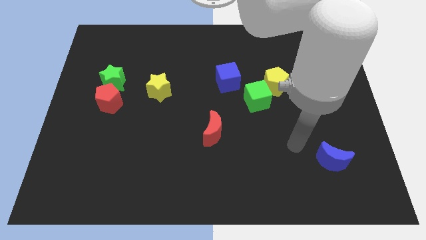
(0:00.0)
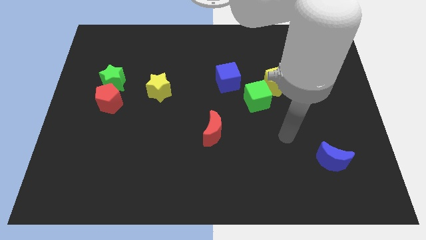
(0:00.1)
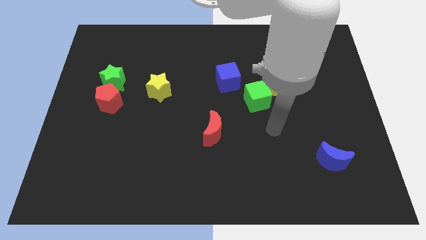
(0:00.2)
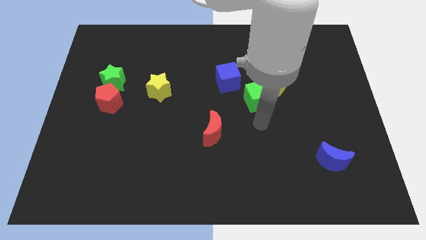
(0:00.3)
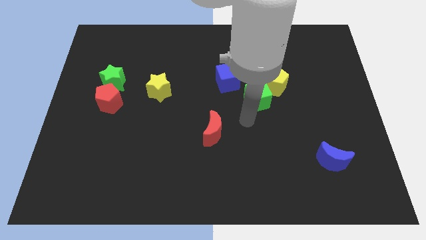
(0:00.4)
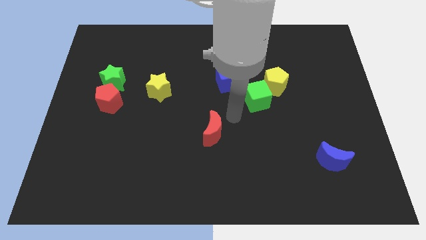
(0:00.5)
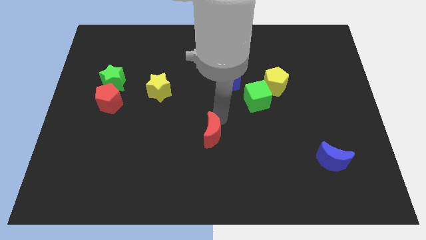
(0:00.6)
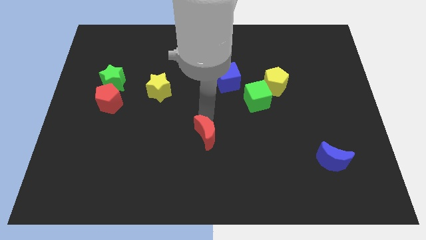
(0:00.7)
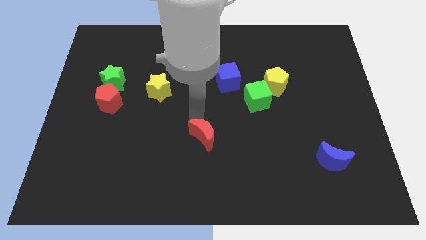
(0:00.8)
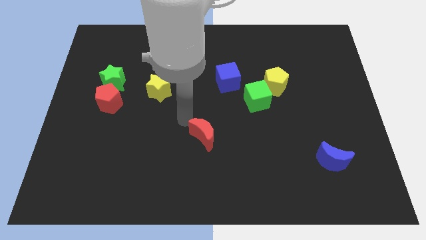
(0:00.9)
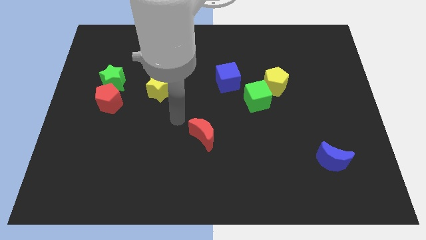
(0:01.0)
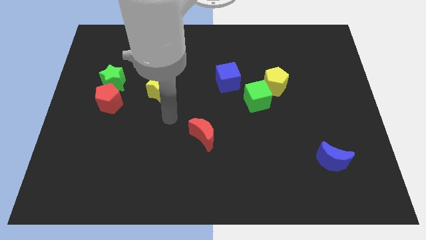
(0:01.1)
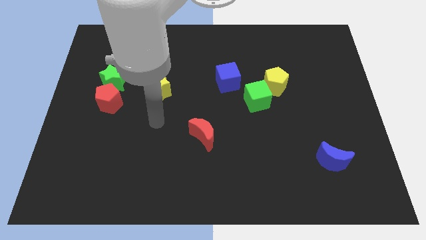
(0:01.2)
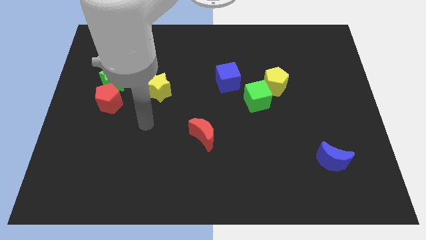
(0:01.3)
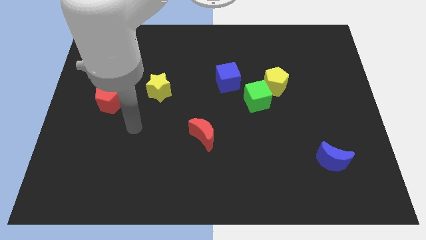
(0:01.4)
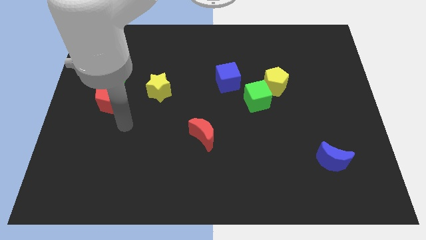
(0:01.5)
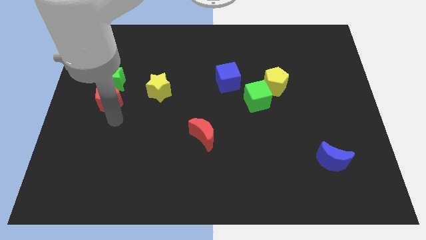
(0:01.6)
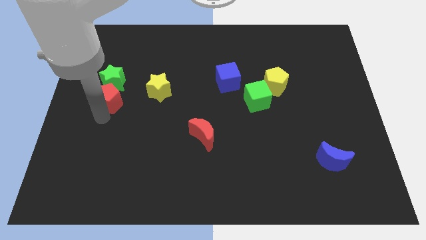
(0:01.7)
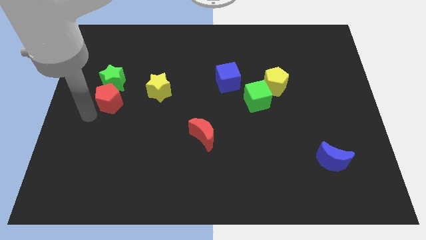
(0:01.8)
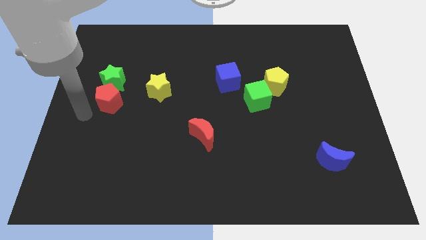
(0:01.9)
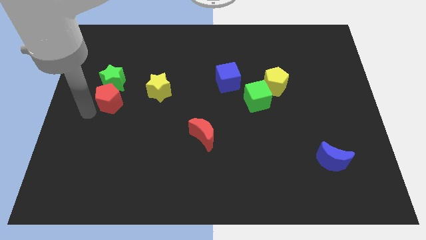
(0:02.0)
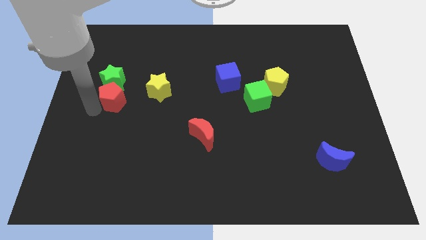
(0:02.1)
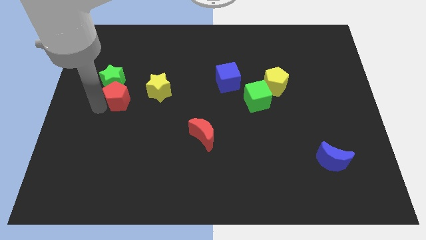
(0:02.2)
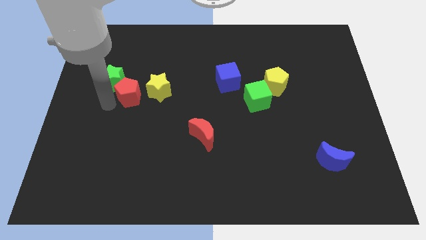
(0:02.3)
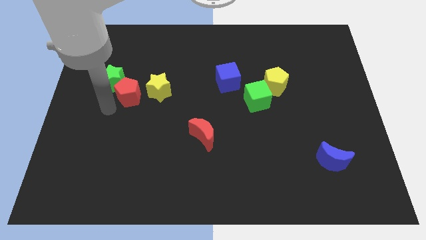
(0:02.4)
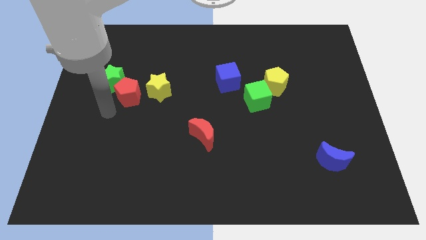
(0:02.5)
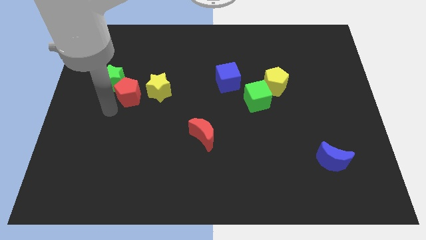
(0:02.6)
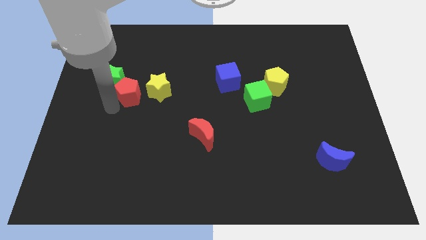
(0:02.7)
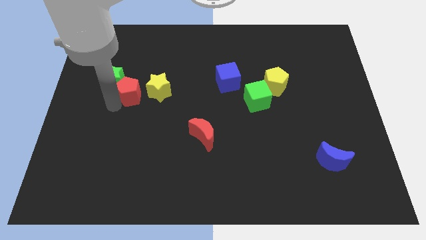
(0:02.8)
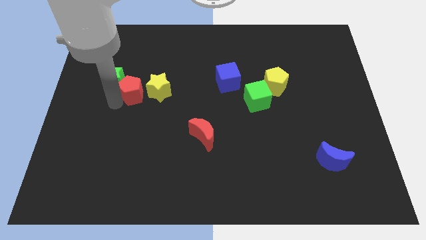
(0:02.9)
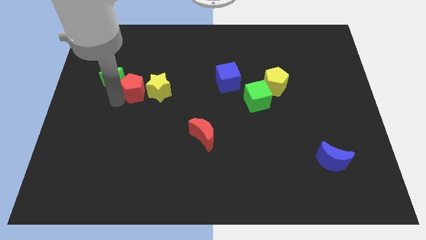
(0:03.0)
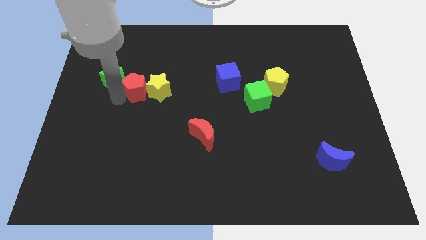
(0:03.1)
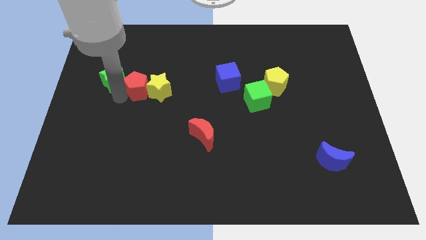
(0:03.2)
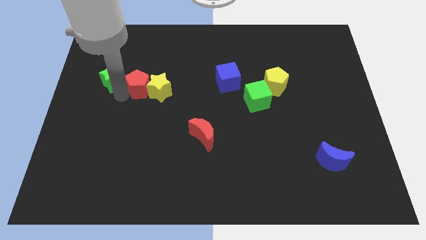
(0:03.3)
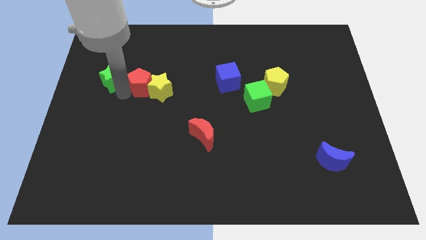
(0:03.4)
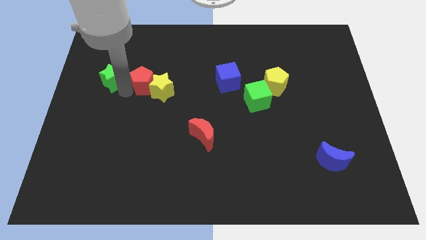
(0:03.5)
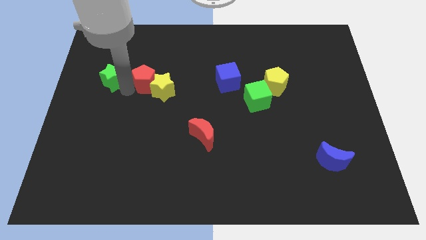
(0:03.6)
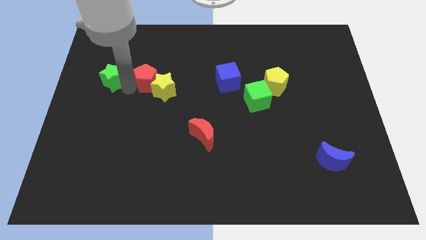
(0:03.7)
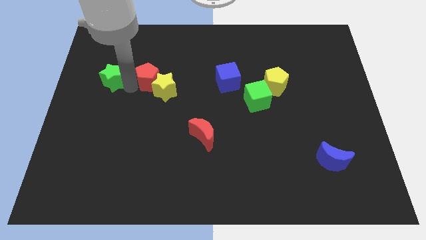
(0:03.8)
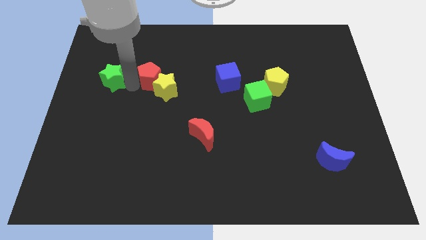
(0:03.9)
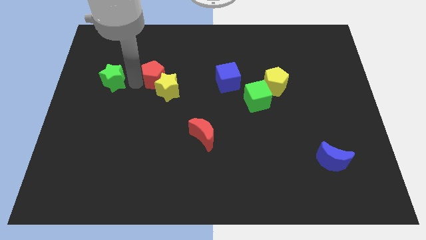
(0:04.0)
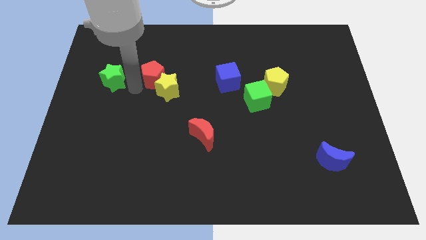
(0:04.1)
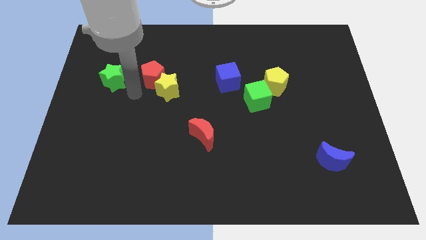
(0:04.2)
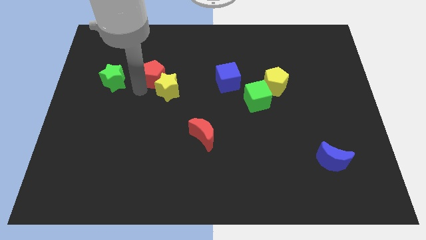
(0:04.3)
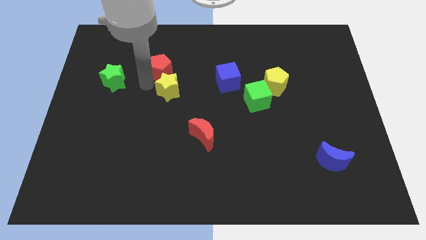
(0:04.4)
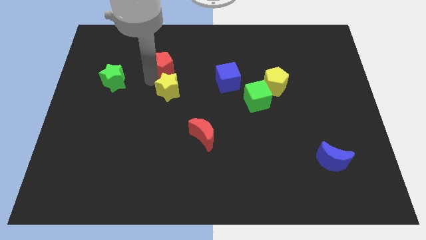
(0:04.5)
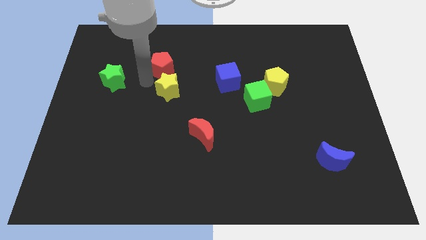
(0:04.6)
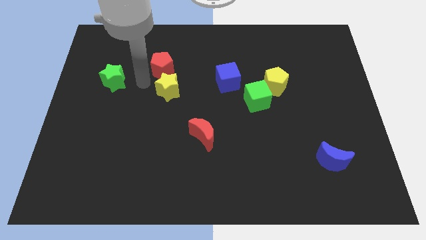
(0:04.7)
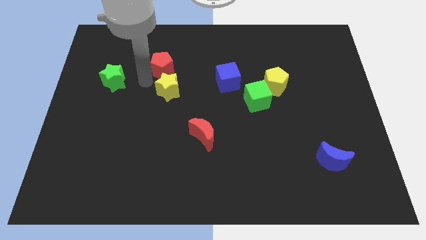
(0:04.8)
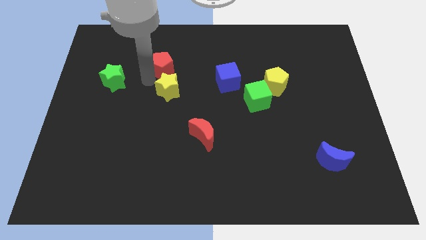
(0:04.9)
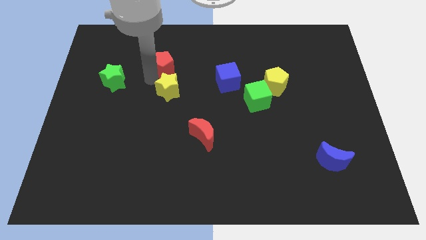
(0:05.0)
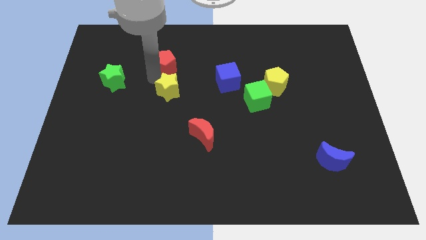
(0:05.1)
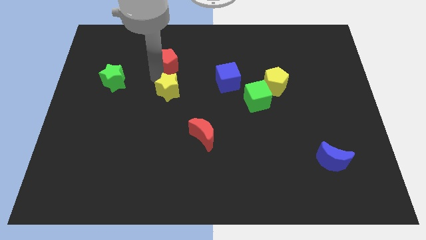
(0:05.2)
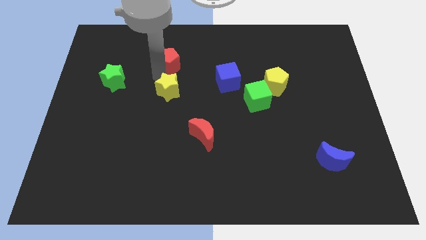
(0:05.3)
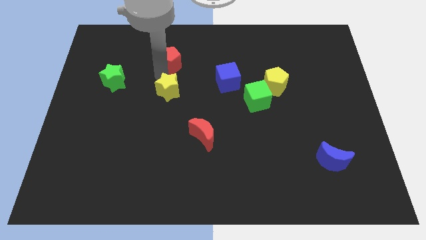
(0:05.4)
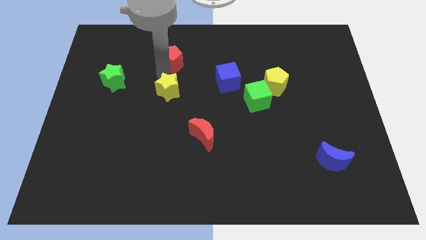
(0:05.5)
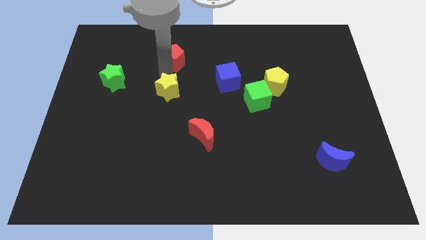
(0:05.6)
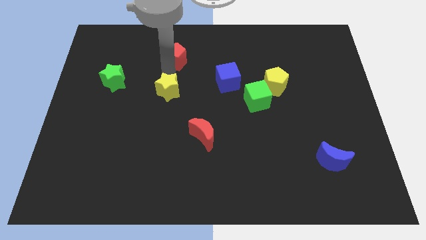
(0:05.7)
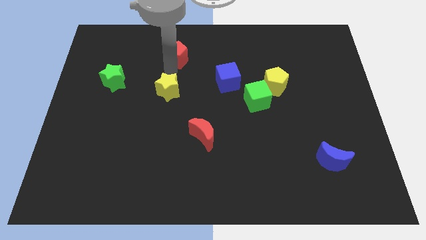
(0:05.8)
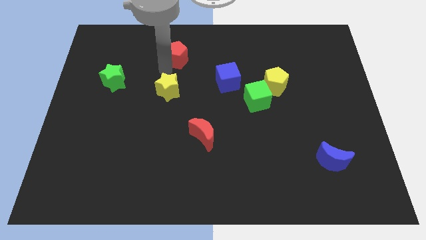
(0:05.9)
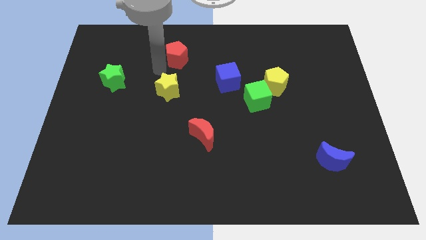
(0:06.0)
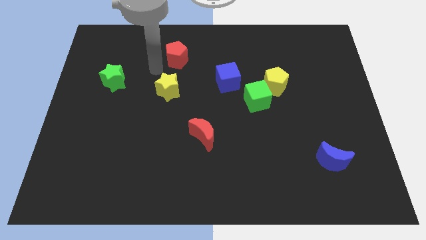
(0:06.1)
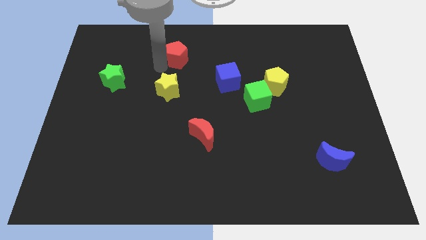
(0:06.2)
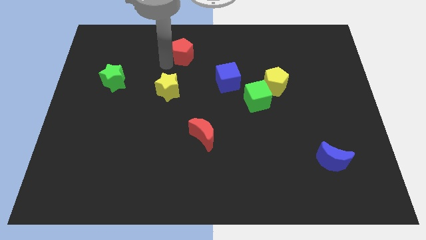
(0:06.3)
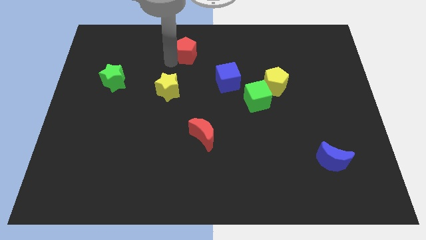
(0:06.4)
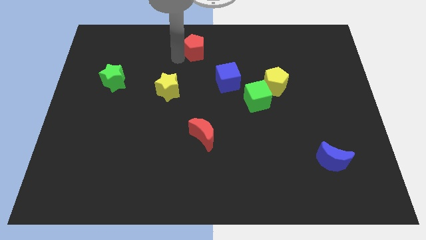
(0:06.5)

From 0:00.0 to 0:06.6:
slide the red pentagon to the top

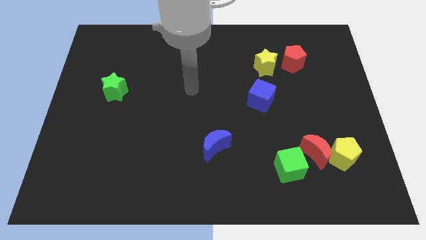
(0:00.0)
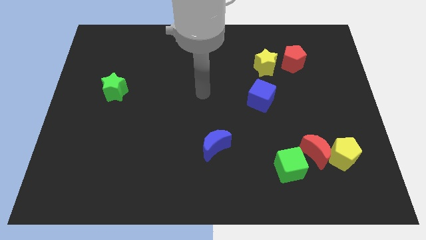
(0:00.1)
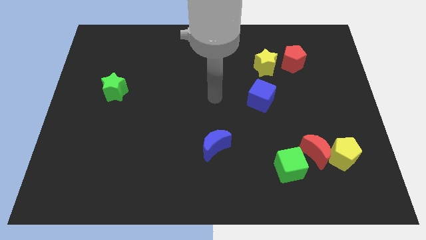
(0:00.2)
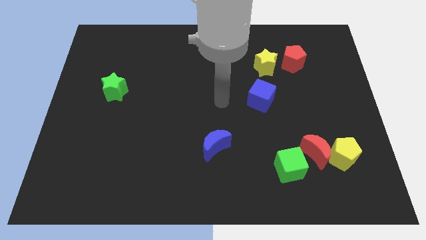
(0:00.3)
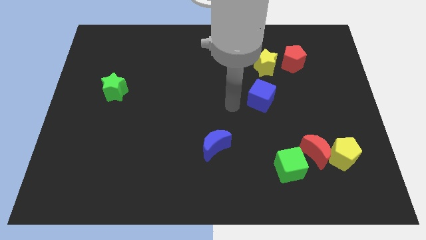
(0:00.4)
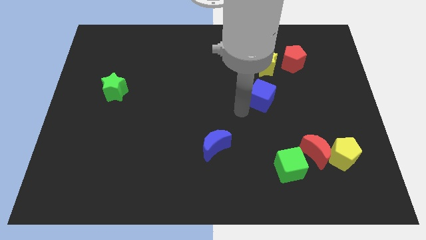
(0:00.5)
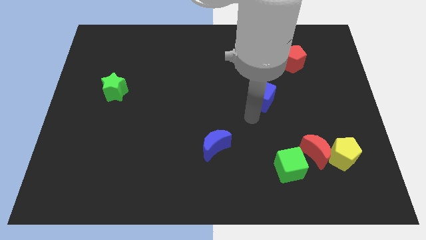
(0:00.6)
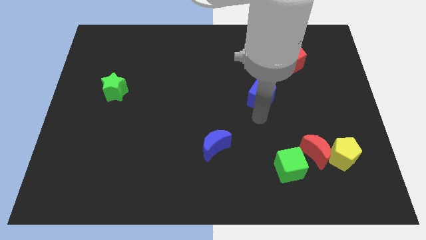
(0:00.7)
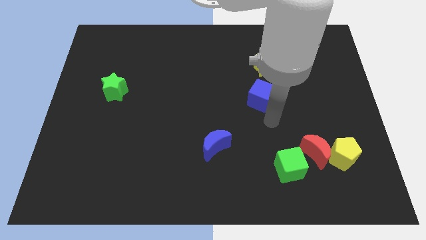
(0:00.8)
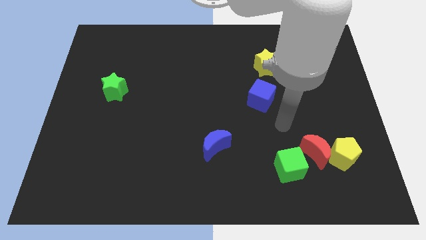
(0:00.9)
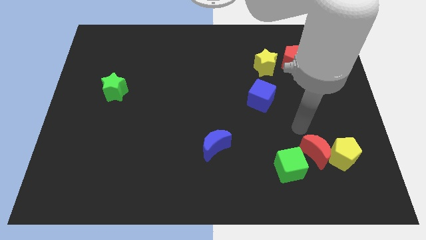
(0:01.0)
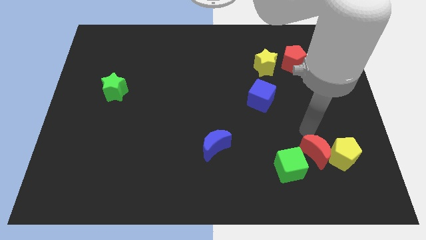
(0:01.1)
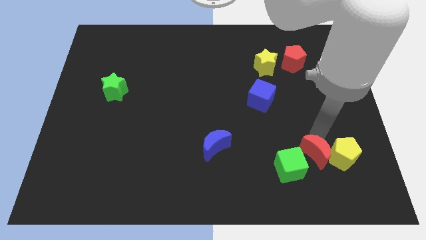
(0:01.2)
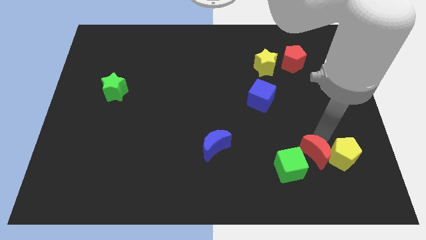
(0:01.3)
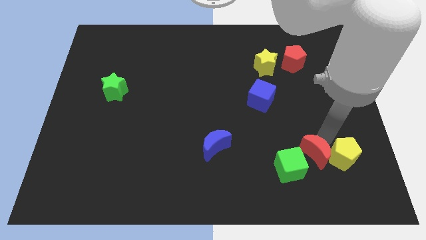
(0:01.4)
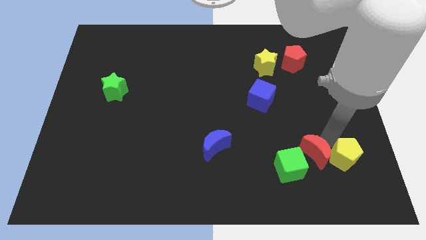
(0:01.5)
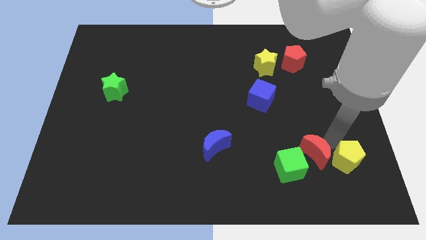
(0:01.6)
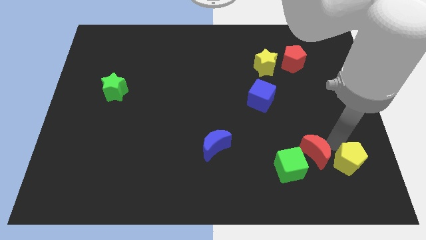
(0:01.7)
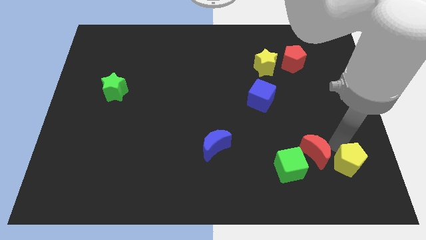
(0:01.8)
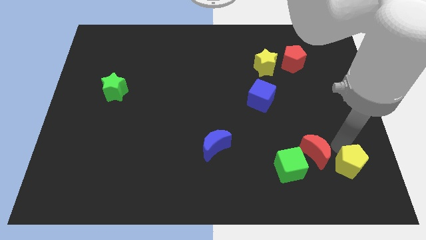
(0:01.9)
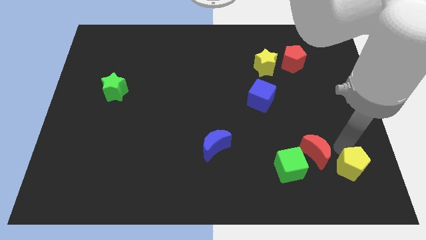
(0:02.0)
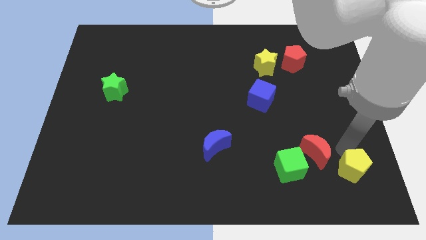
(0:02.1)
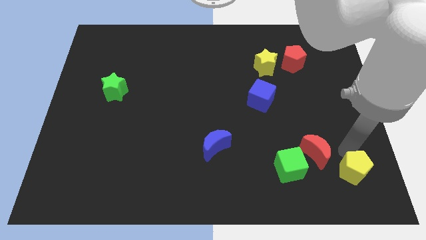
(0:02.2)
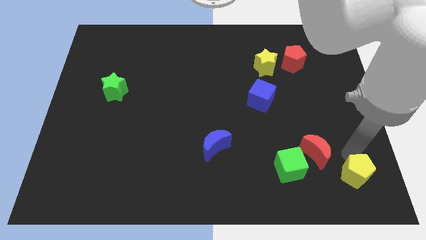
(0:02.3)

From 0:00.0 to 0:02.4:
push the yellow pentagon to the lower right corner
